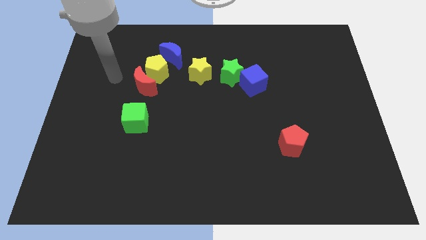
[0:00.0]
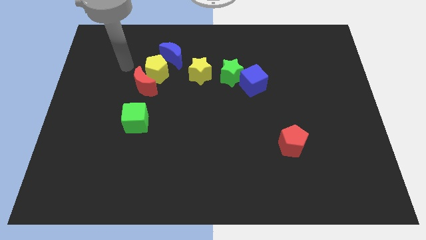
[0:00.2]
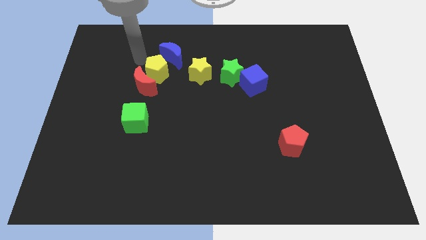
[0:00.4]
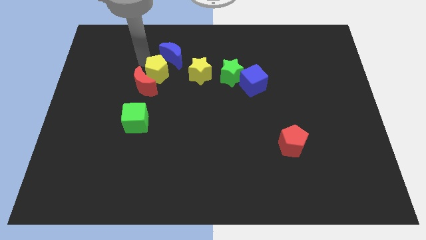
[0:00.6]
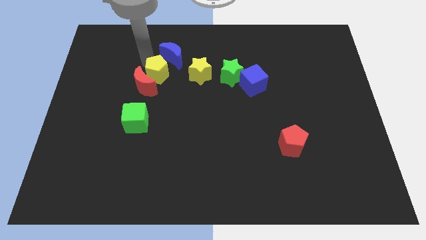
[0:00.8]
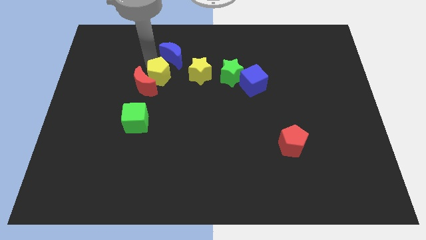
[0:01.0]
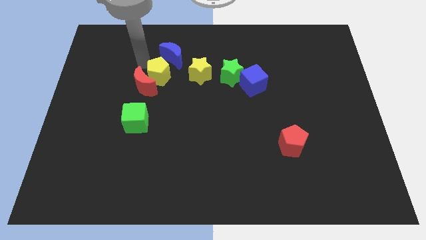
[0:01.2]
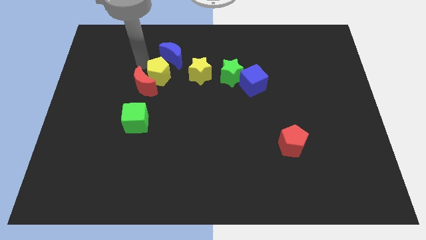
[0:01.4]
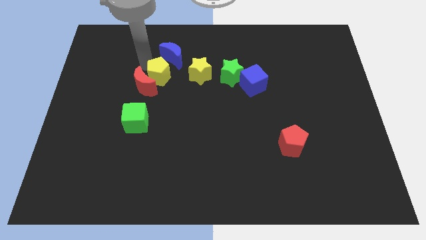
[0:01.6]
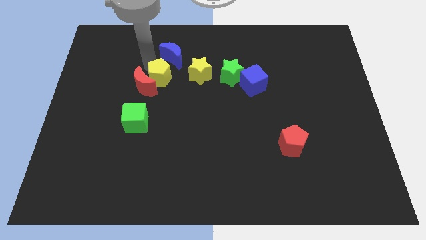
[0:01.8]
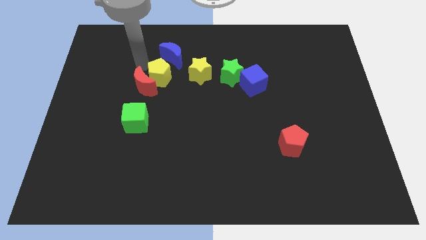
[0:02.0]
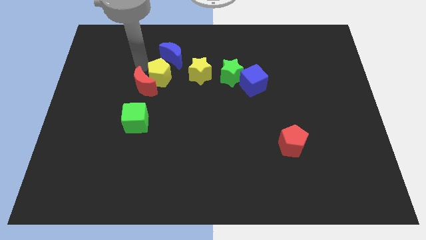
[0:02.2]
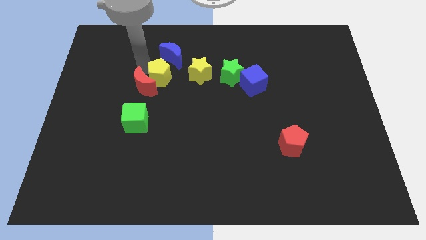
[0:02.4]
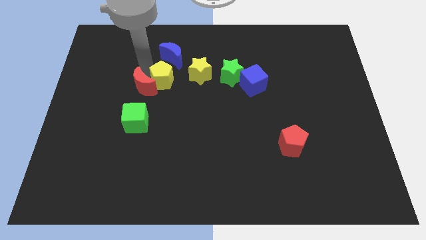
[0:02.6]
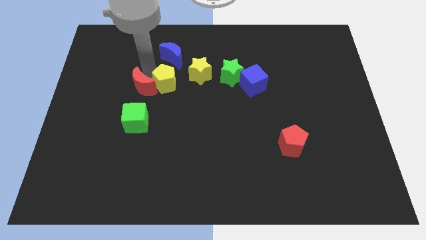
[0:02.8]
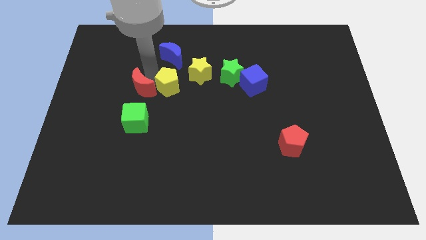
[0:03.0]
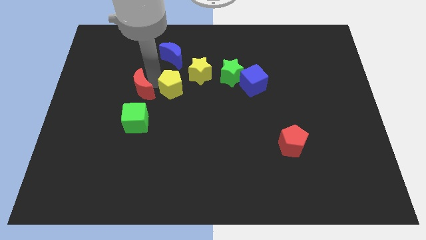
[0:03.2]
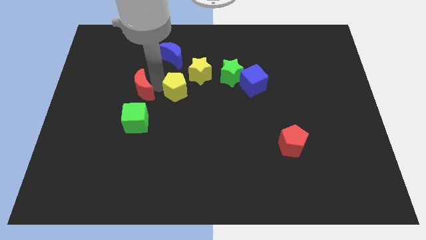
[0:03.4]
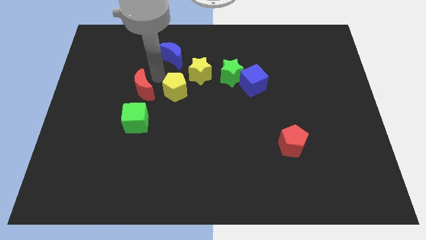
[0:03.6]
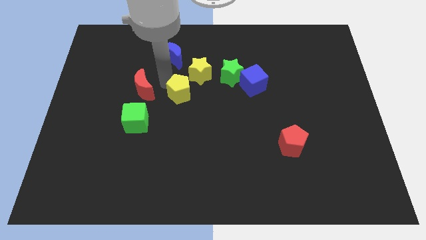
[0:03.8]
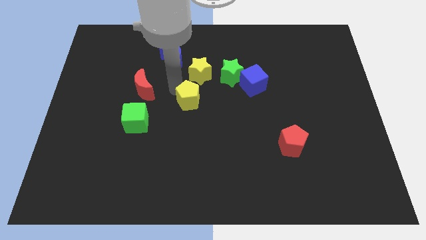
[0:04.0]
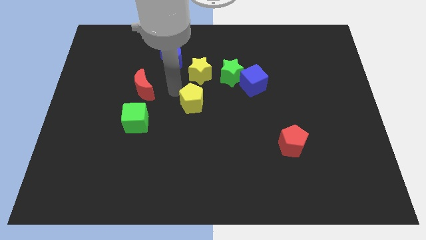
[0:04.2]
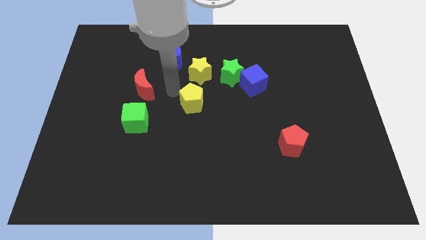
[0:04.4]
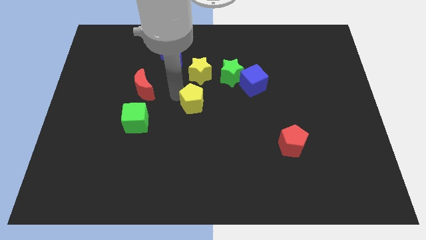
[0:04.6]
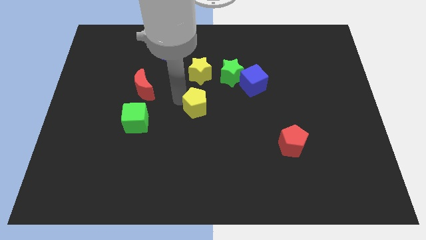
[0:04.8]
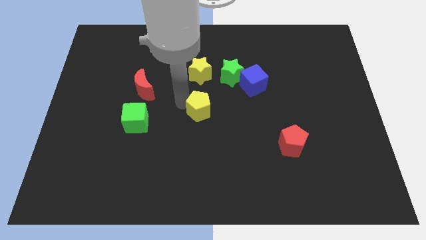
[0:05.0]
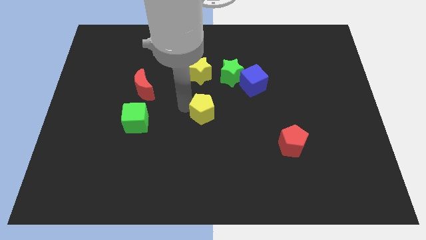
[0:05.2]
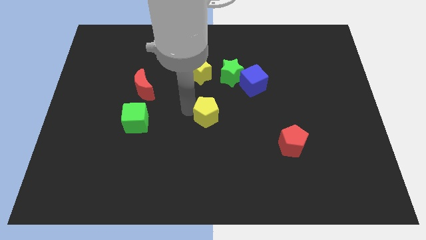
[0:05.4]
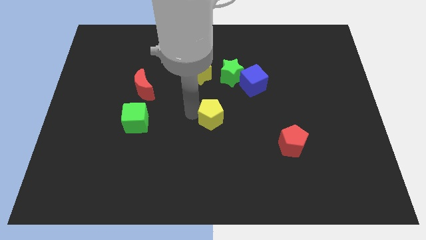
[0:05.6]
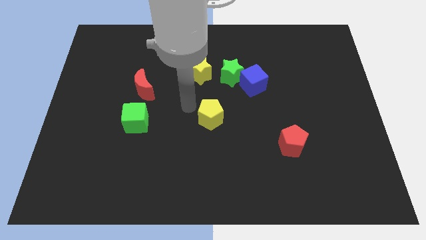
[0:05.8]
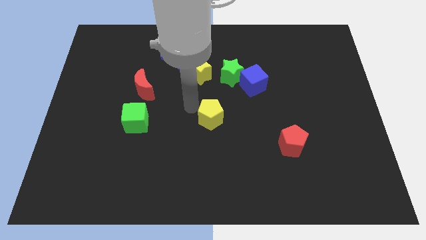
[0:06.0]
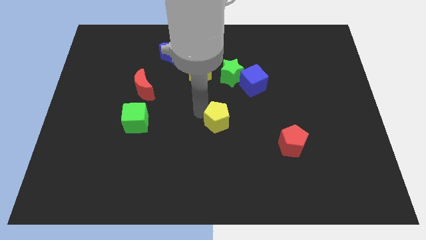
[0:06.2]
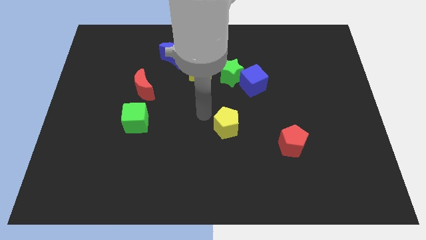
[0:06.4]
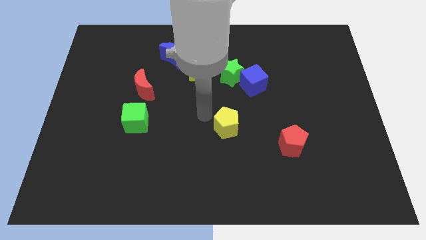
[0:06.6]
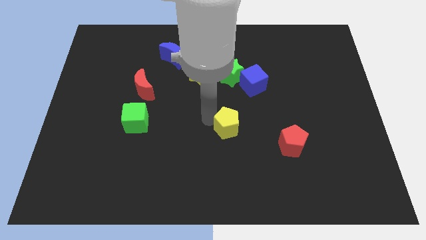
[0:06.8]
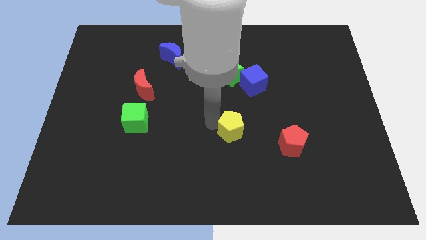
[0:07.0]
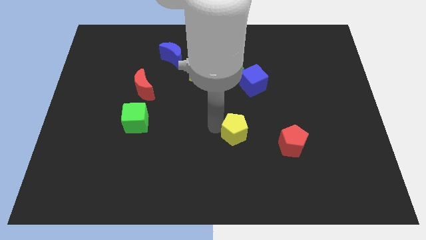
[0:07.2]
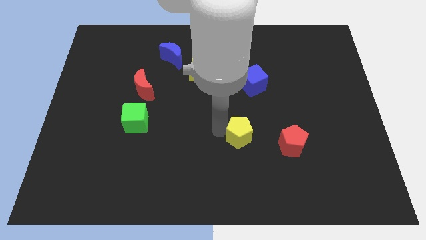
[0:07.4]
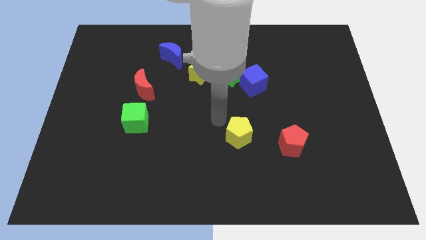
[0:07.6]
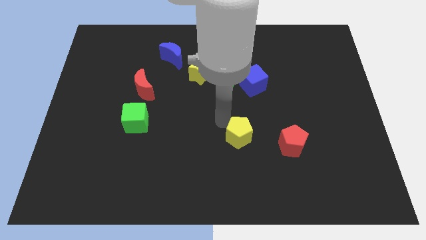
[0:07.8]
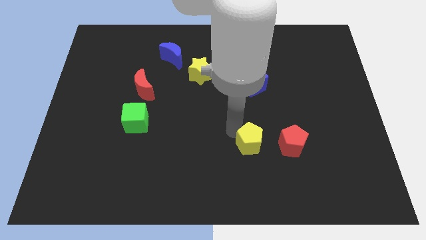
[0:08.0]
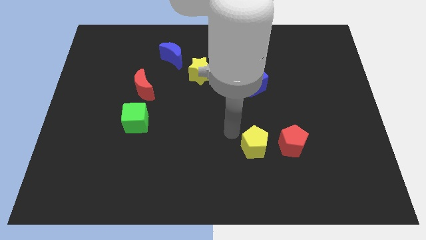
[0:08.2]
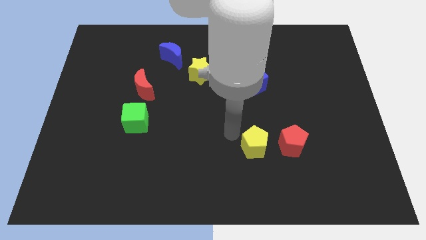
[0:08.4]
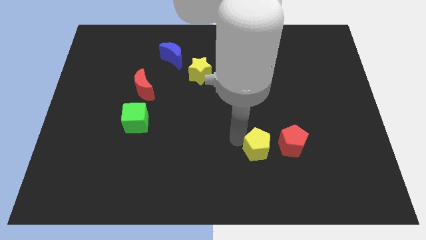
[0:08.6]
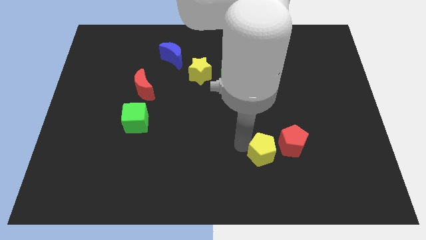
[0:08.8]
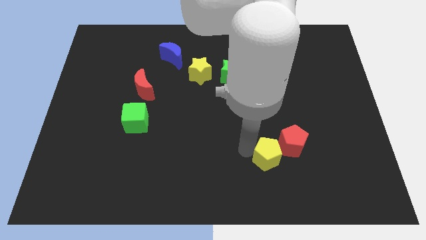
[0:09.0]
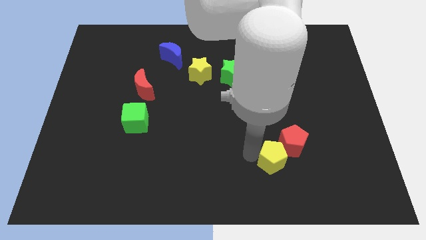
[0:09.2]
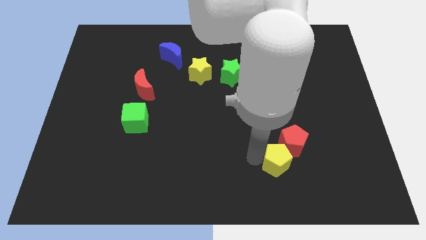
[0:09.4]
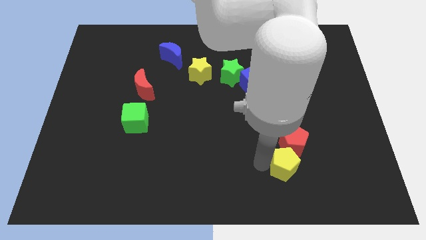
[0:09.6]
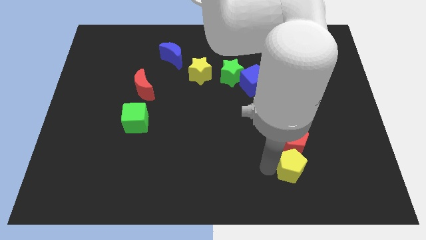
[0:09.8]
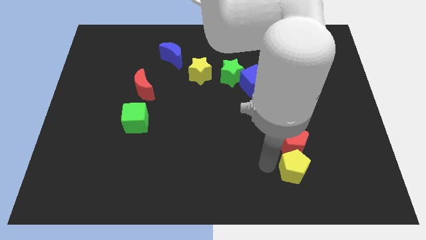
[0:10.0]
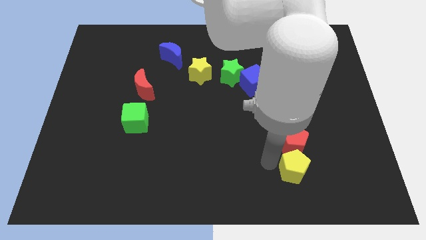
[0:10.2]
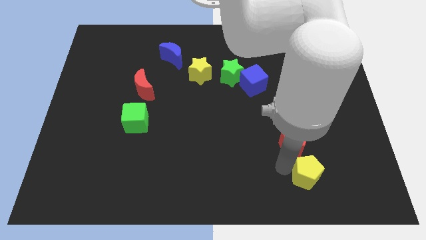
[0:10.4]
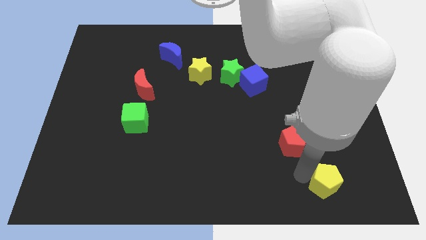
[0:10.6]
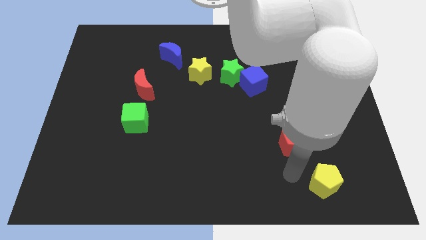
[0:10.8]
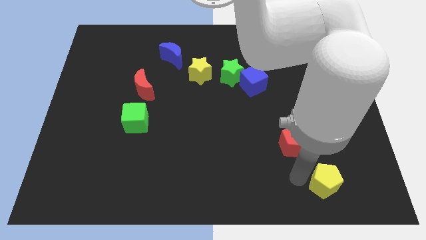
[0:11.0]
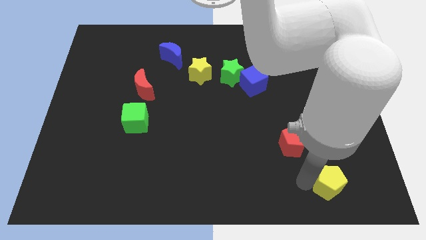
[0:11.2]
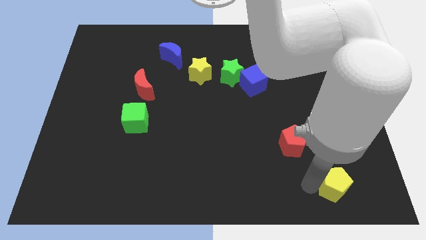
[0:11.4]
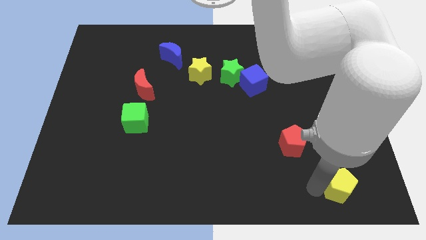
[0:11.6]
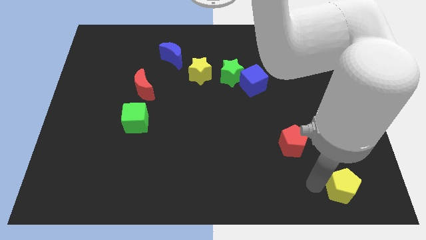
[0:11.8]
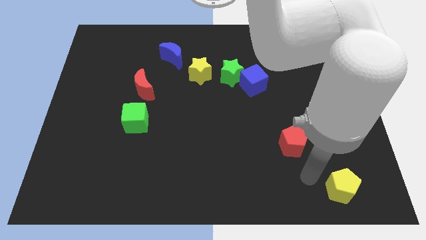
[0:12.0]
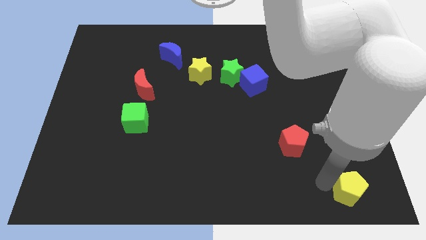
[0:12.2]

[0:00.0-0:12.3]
slide the yellow pentagon to the bottom right

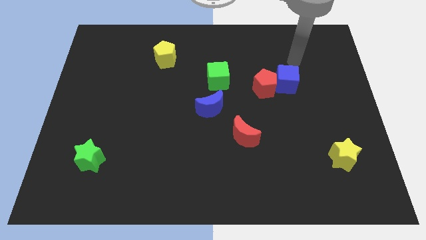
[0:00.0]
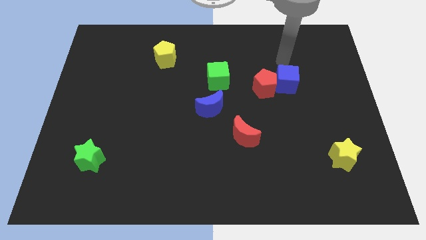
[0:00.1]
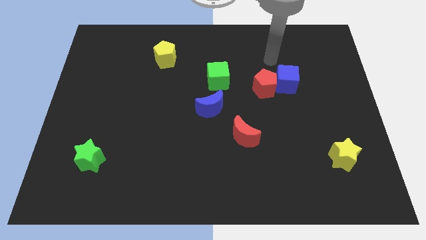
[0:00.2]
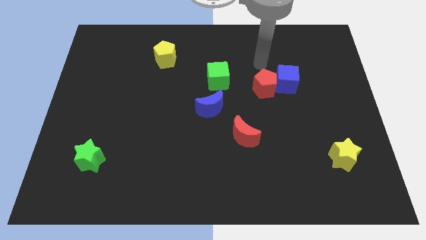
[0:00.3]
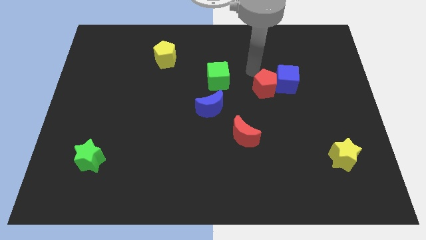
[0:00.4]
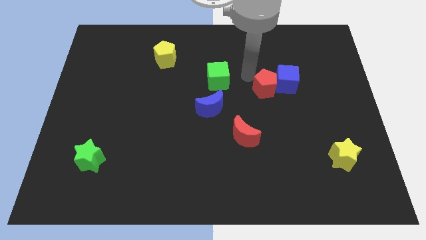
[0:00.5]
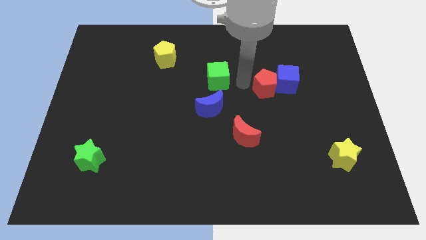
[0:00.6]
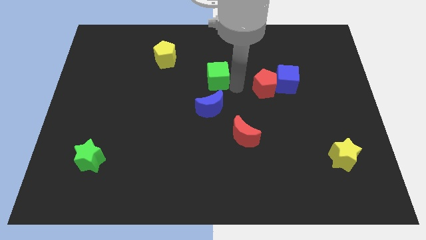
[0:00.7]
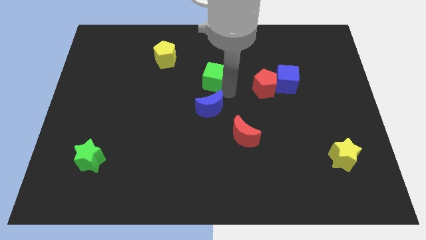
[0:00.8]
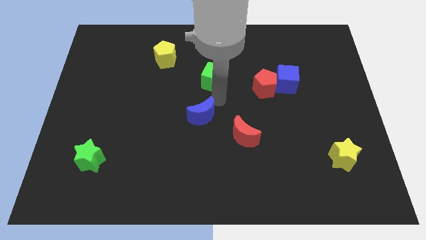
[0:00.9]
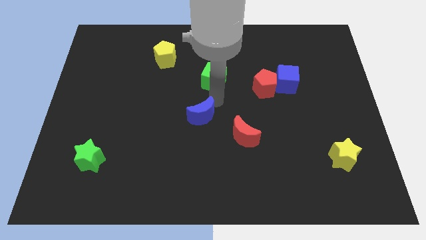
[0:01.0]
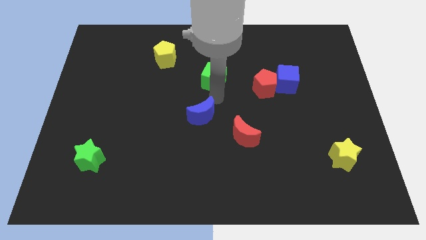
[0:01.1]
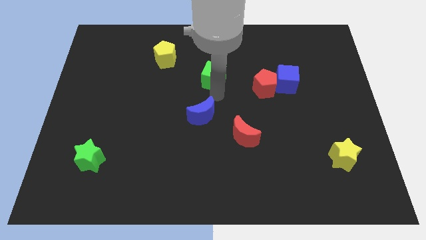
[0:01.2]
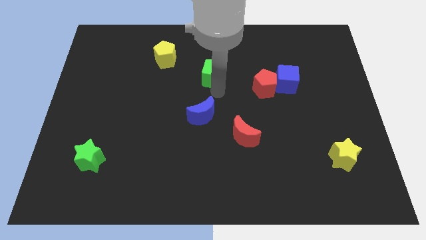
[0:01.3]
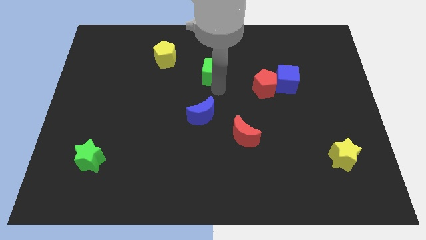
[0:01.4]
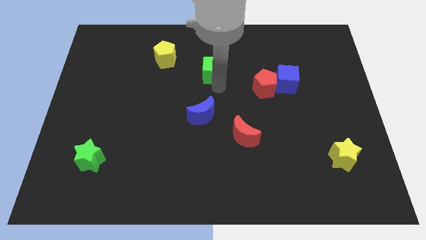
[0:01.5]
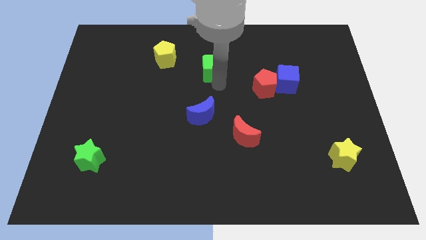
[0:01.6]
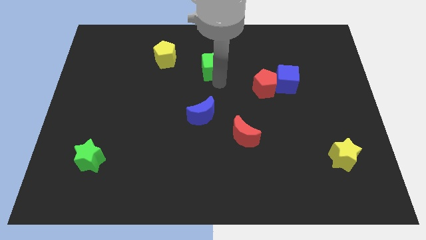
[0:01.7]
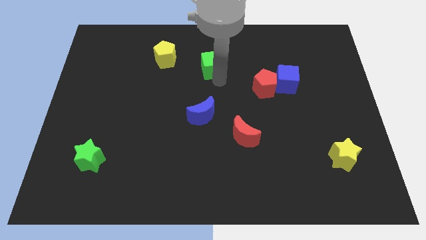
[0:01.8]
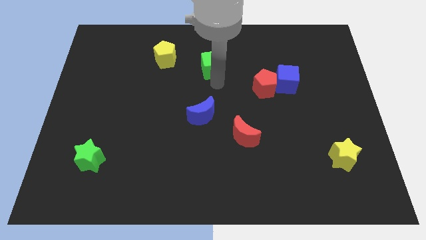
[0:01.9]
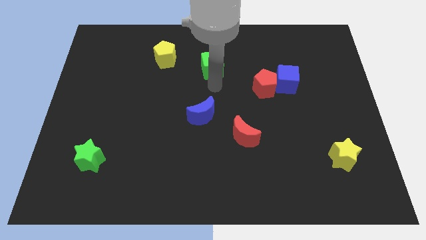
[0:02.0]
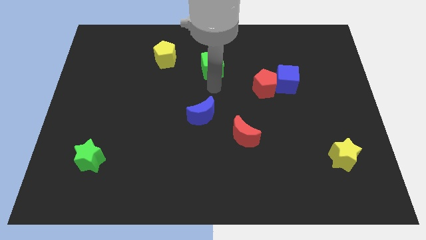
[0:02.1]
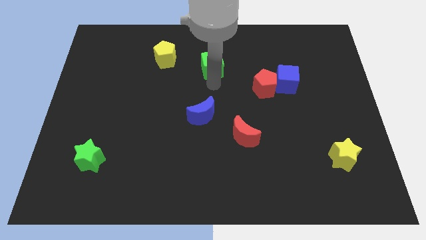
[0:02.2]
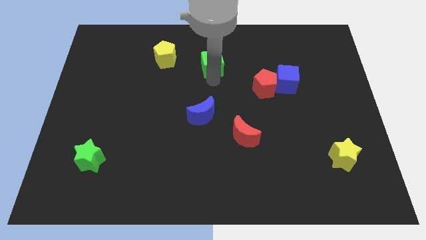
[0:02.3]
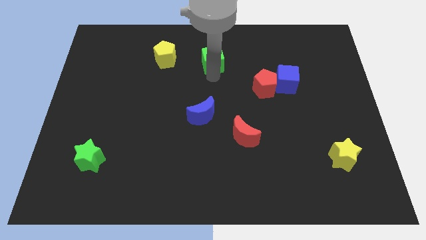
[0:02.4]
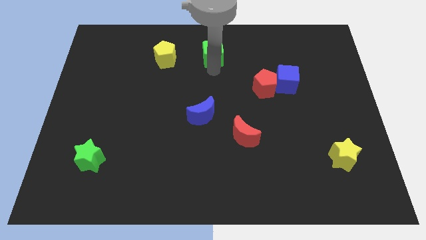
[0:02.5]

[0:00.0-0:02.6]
move the green cube to the top side
